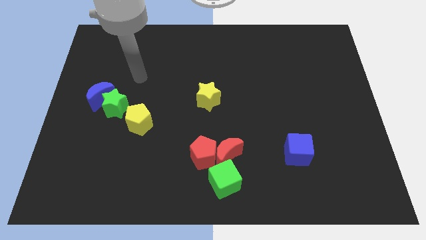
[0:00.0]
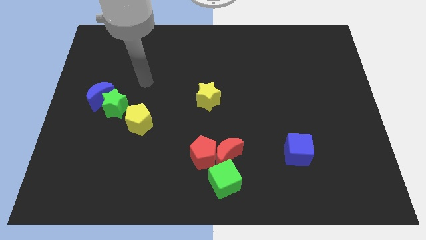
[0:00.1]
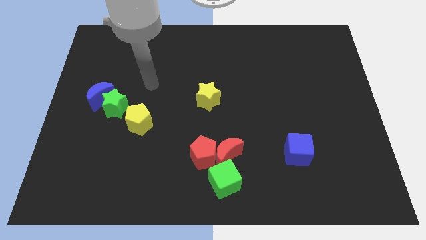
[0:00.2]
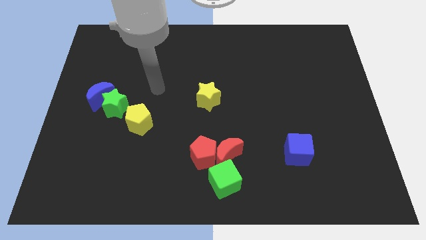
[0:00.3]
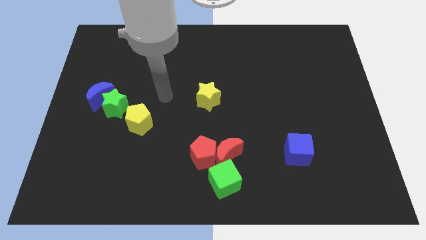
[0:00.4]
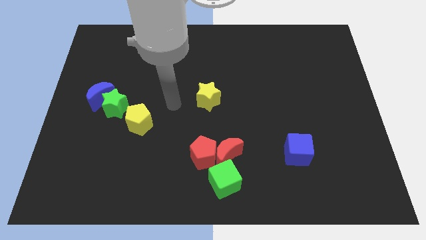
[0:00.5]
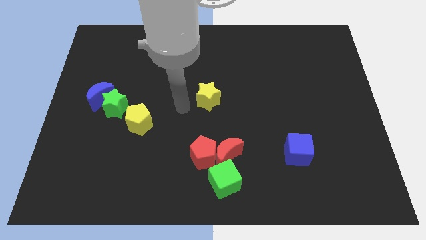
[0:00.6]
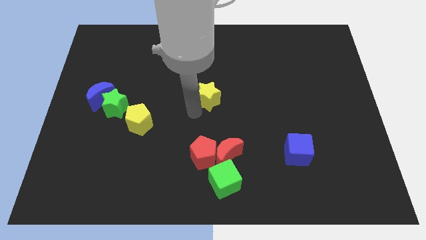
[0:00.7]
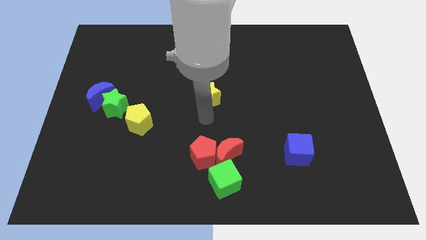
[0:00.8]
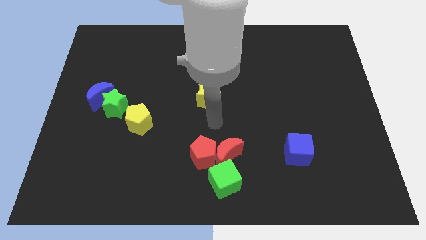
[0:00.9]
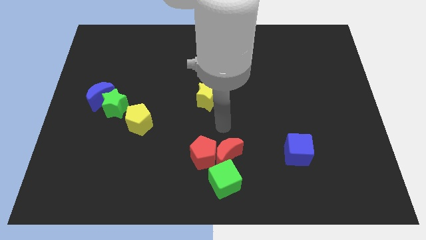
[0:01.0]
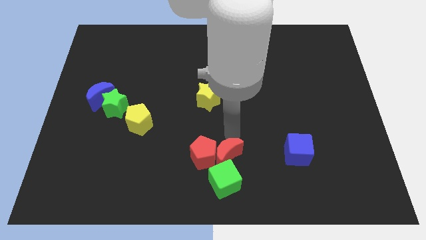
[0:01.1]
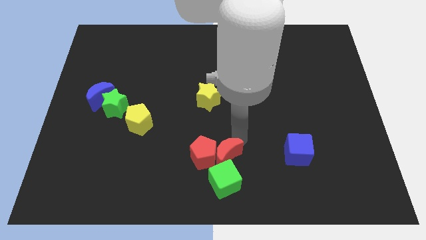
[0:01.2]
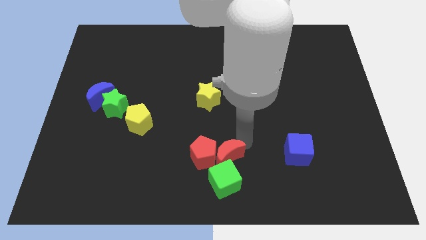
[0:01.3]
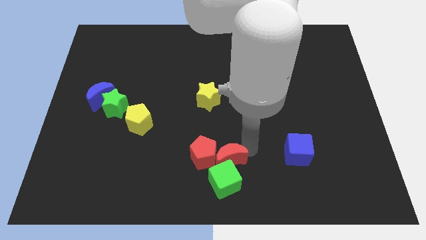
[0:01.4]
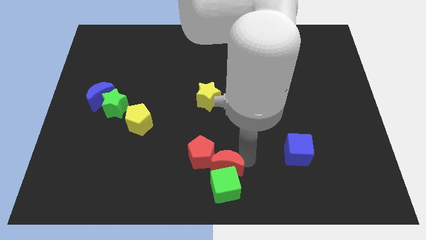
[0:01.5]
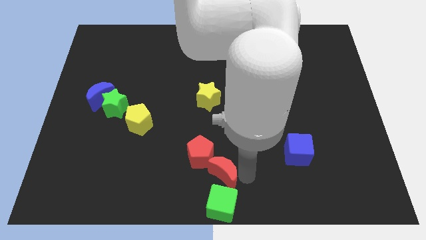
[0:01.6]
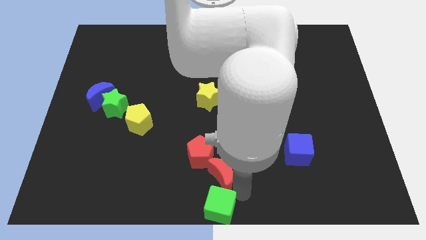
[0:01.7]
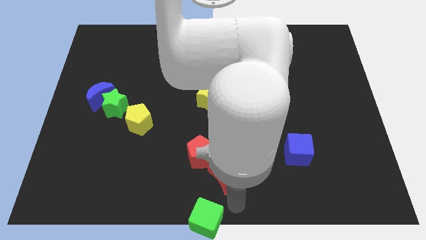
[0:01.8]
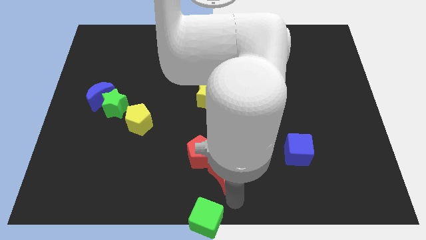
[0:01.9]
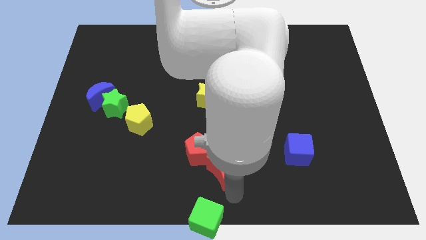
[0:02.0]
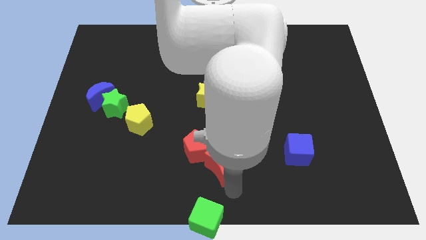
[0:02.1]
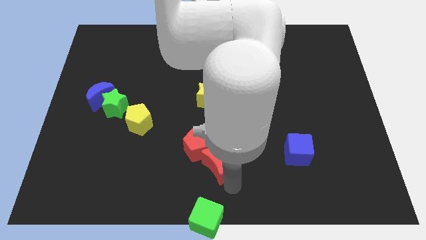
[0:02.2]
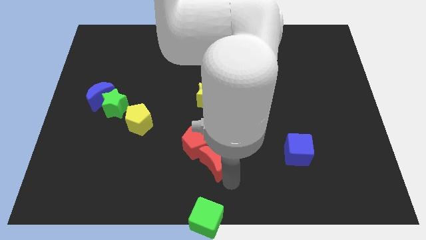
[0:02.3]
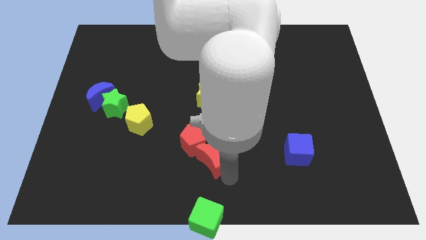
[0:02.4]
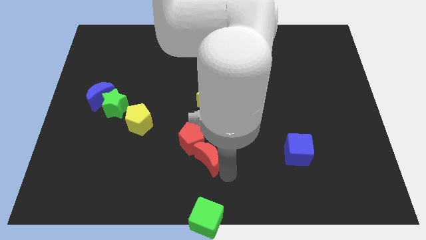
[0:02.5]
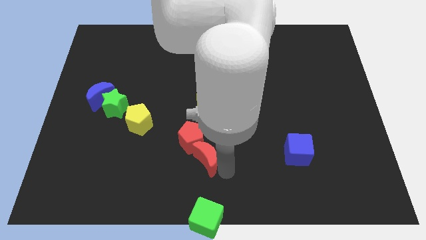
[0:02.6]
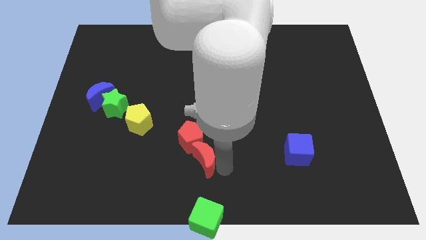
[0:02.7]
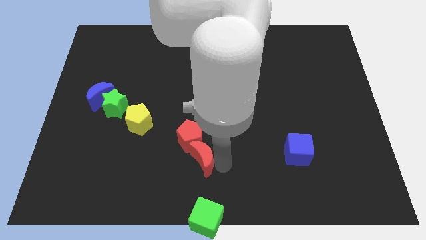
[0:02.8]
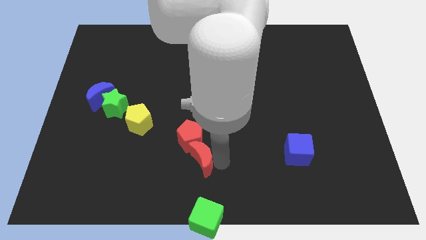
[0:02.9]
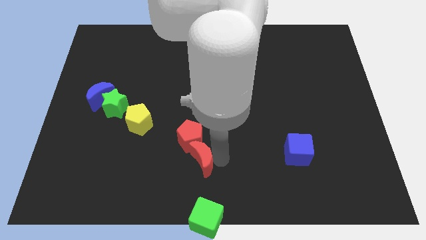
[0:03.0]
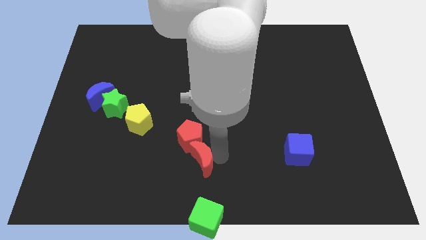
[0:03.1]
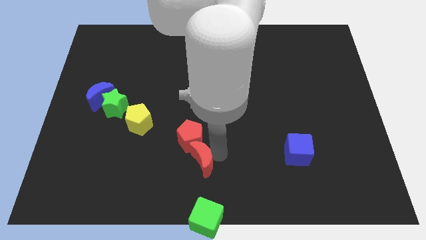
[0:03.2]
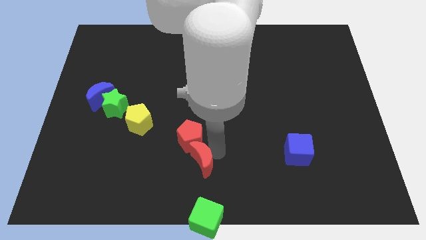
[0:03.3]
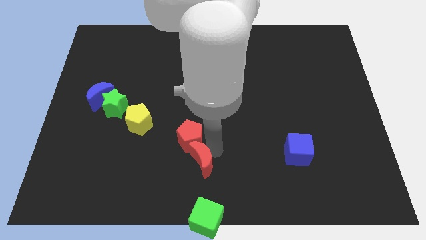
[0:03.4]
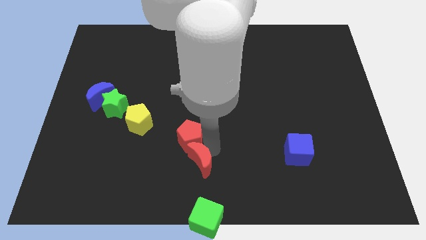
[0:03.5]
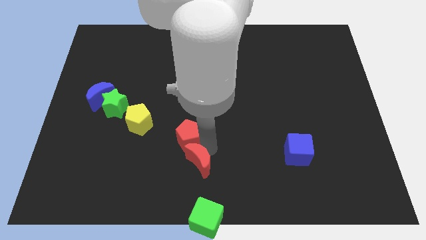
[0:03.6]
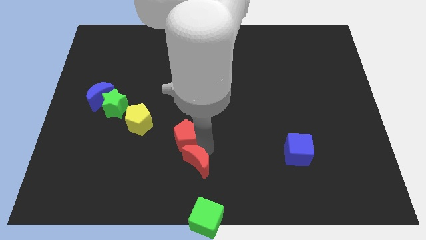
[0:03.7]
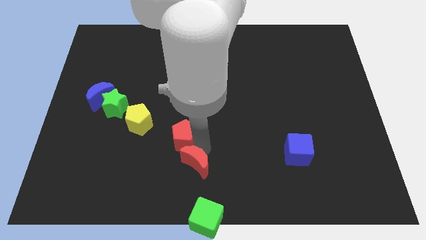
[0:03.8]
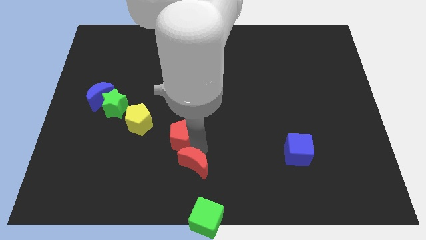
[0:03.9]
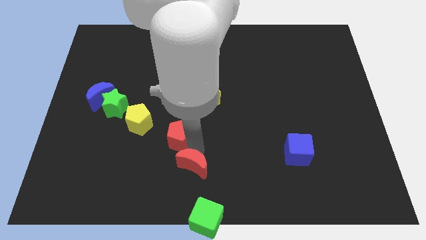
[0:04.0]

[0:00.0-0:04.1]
slide the red moon left somewhat

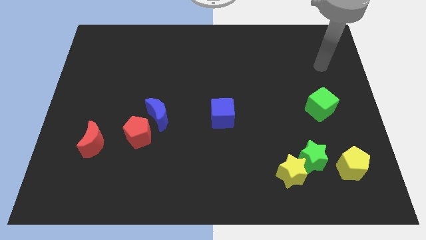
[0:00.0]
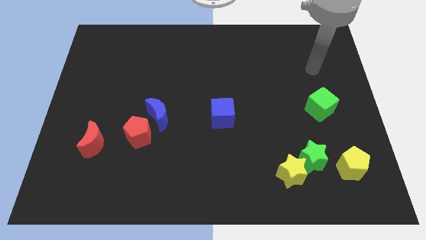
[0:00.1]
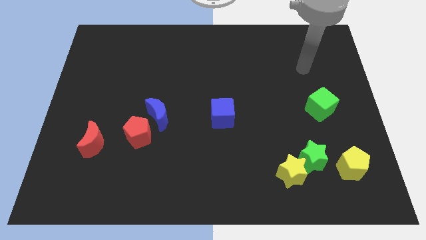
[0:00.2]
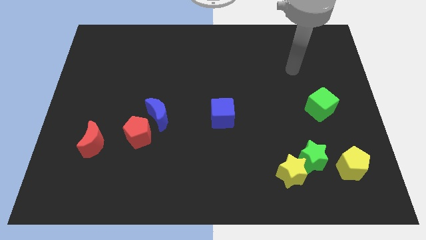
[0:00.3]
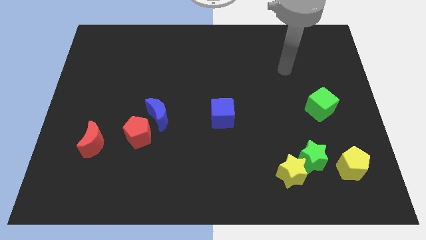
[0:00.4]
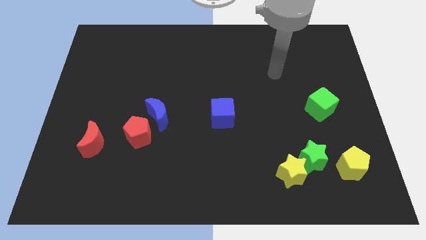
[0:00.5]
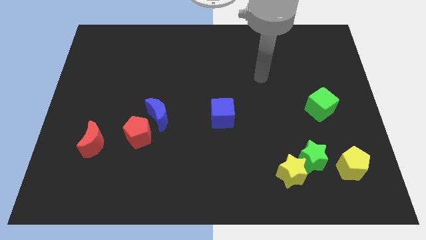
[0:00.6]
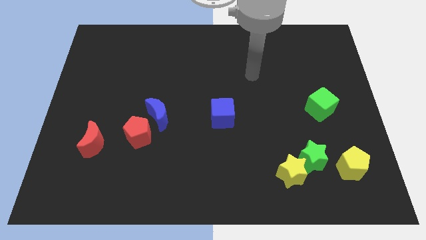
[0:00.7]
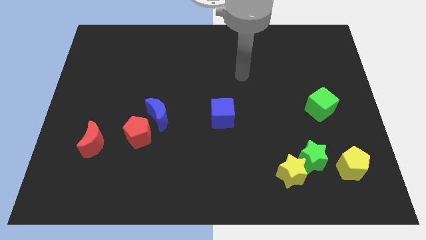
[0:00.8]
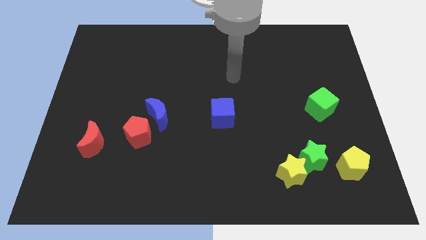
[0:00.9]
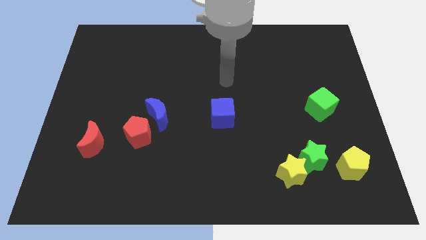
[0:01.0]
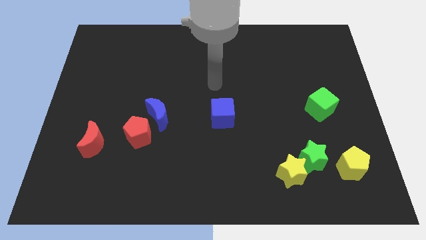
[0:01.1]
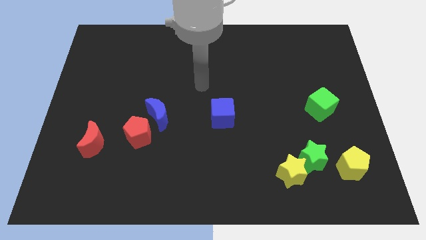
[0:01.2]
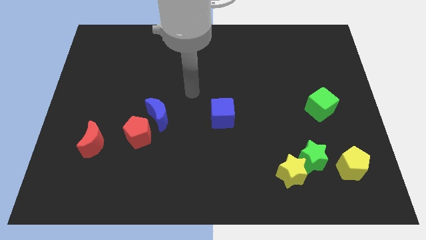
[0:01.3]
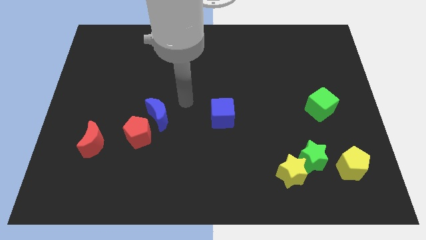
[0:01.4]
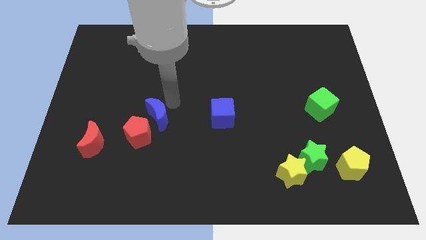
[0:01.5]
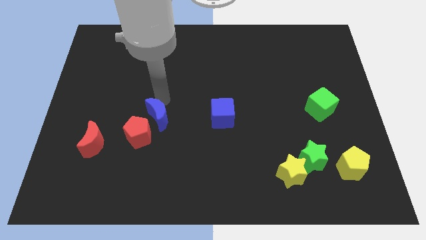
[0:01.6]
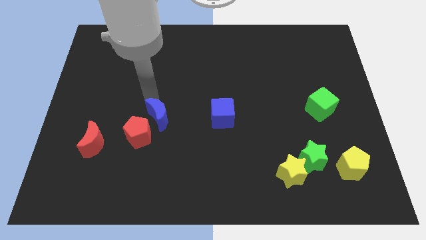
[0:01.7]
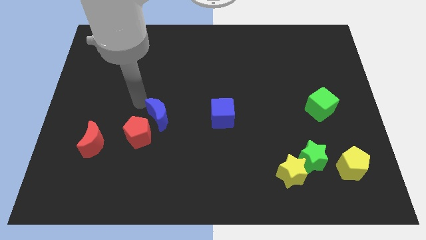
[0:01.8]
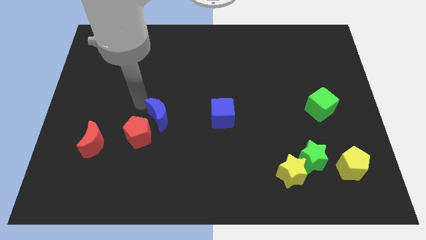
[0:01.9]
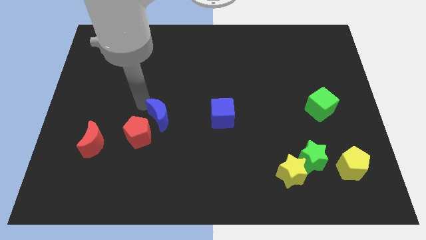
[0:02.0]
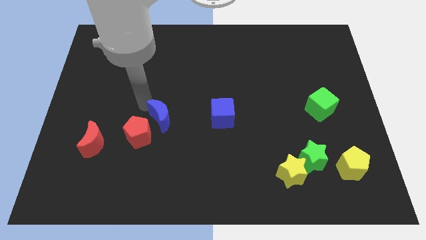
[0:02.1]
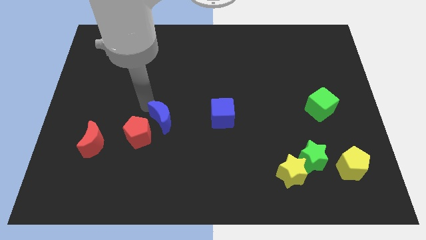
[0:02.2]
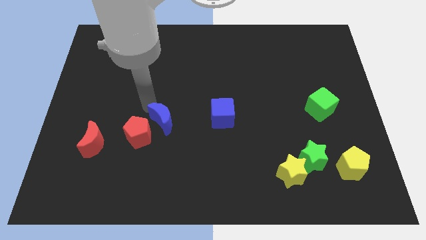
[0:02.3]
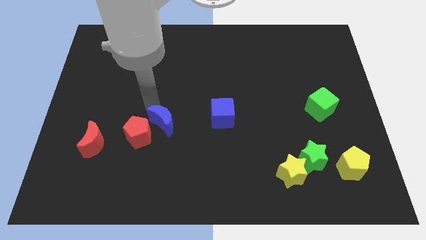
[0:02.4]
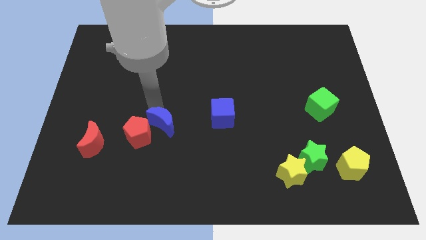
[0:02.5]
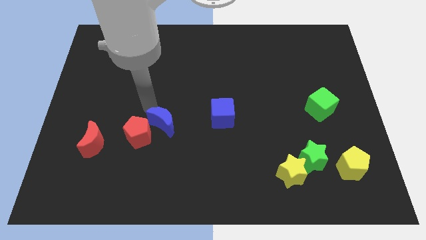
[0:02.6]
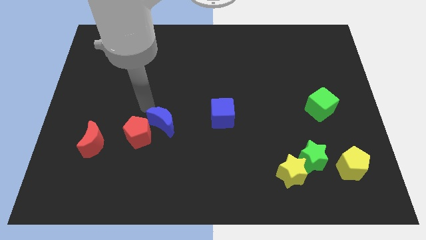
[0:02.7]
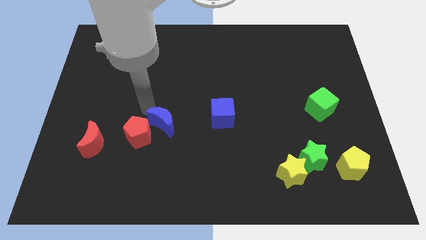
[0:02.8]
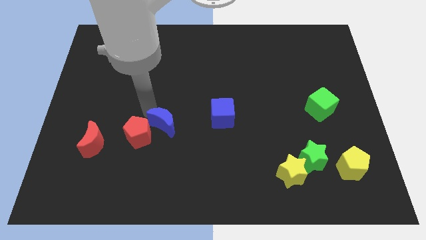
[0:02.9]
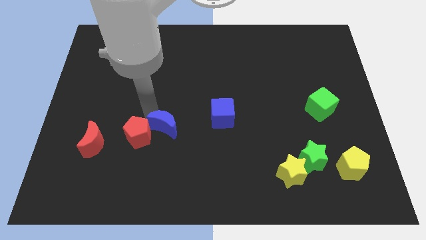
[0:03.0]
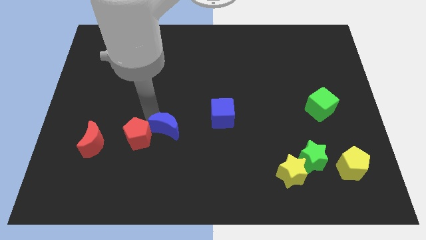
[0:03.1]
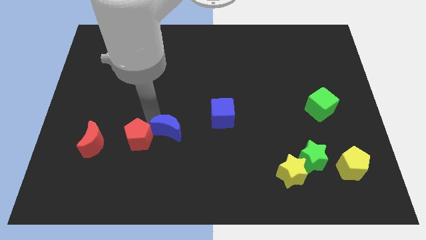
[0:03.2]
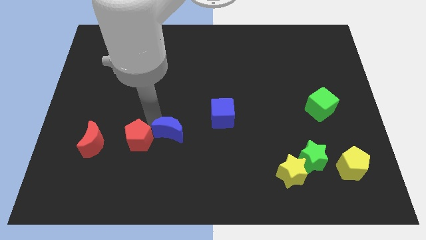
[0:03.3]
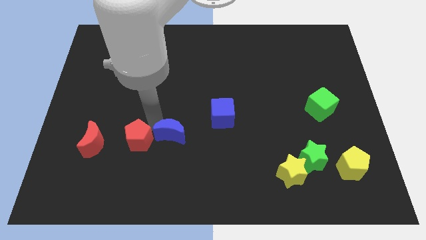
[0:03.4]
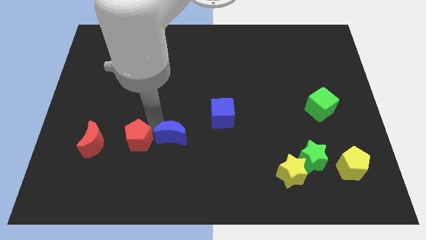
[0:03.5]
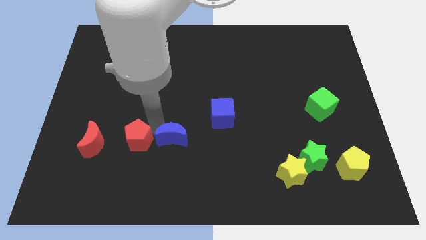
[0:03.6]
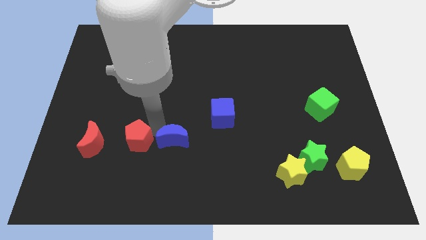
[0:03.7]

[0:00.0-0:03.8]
move the blue moon a little down and then to the right
